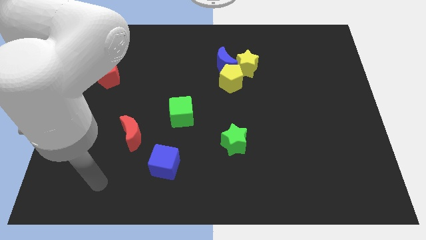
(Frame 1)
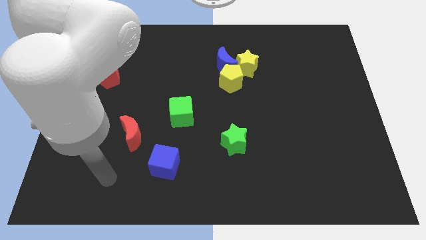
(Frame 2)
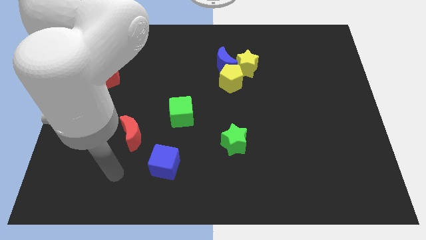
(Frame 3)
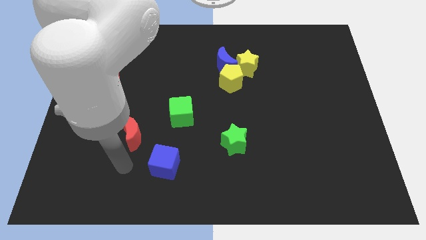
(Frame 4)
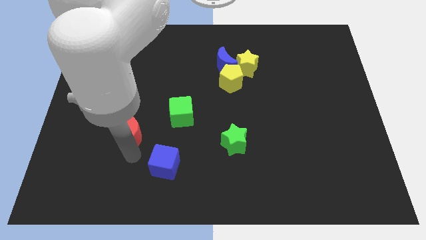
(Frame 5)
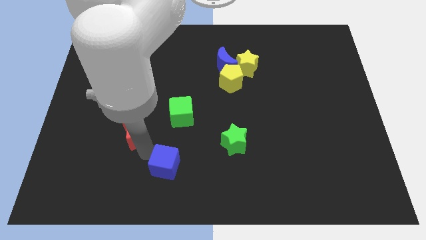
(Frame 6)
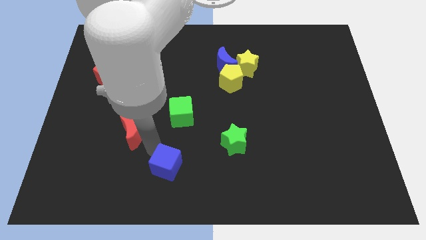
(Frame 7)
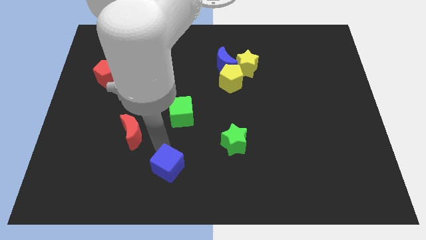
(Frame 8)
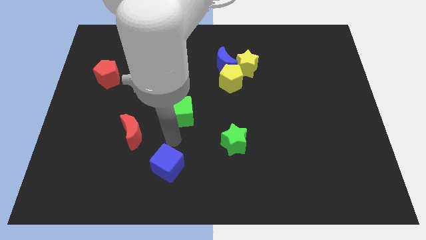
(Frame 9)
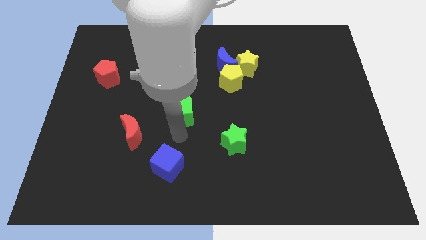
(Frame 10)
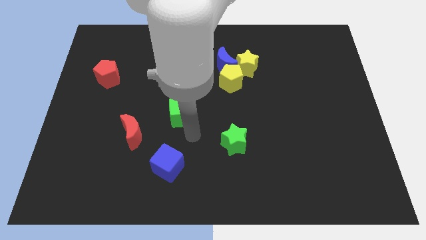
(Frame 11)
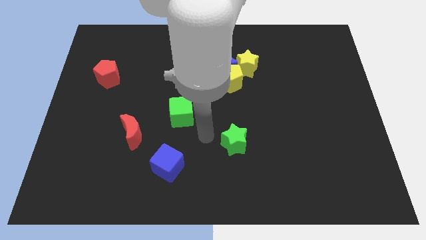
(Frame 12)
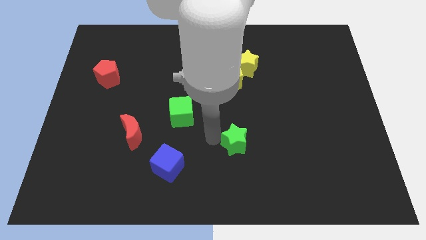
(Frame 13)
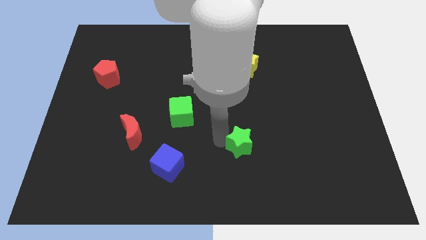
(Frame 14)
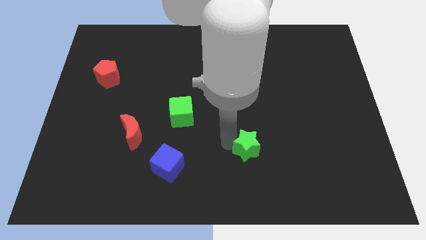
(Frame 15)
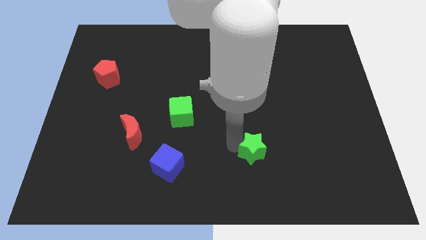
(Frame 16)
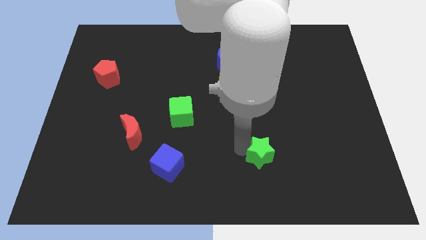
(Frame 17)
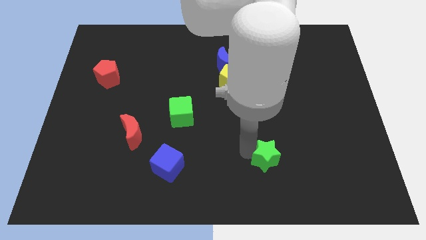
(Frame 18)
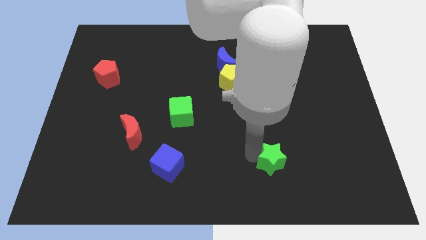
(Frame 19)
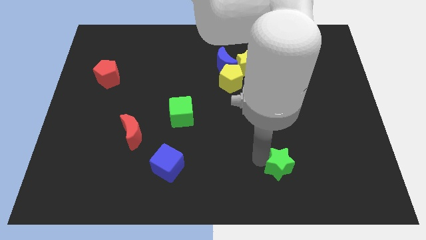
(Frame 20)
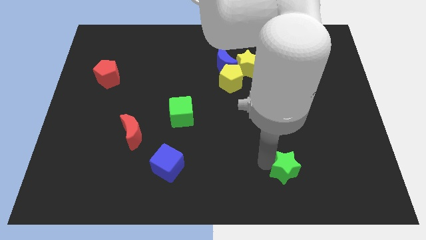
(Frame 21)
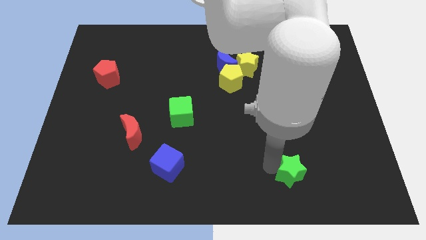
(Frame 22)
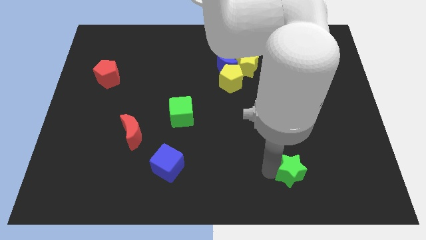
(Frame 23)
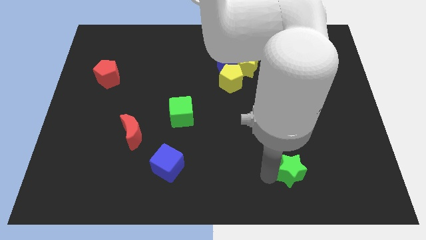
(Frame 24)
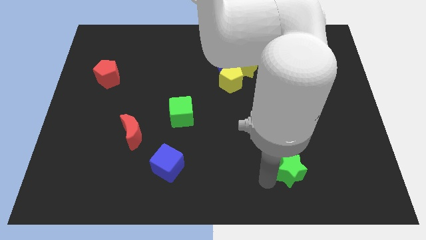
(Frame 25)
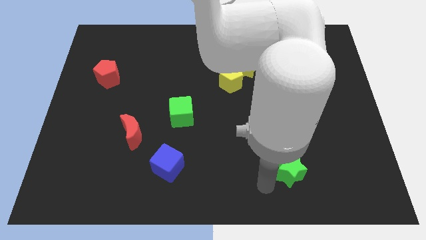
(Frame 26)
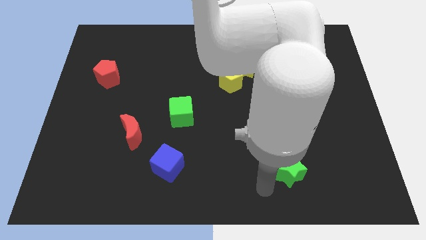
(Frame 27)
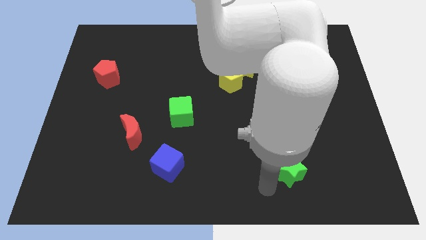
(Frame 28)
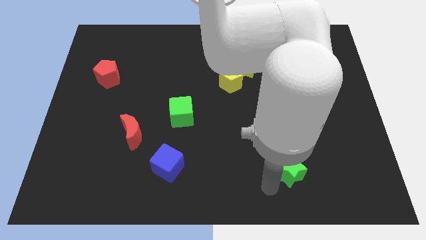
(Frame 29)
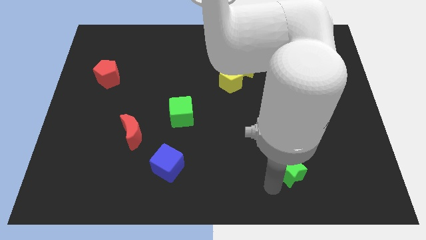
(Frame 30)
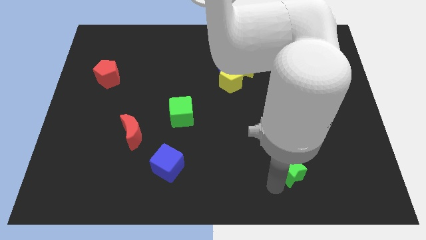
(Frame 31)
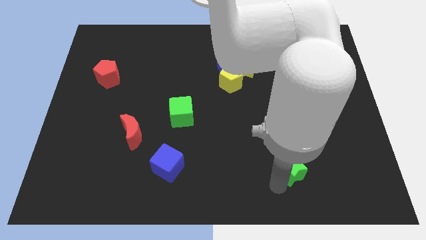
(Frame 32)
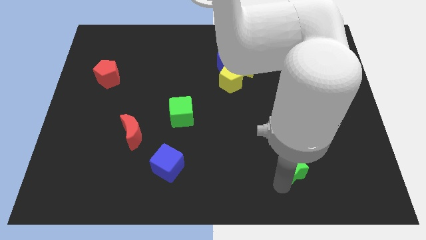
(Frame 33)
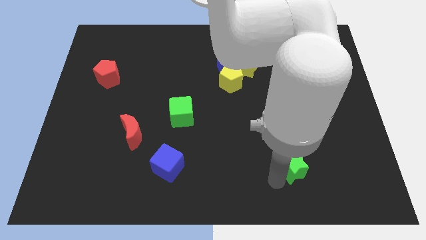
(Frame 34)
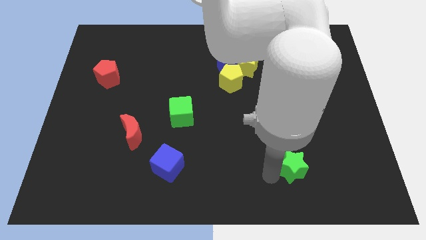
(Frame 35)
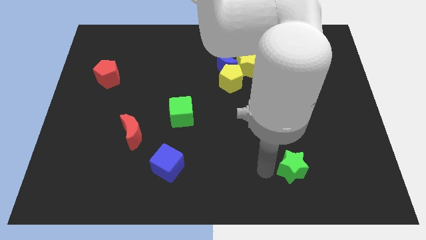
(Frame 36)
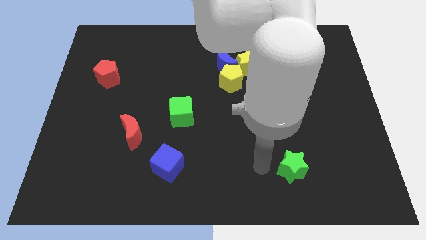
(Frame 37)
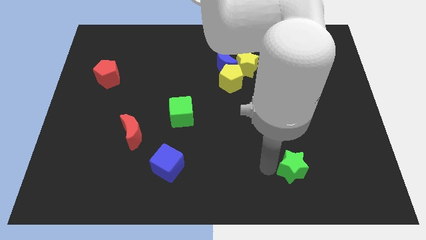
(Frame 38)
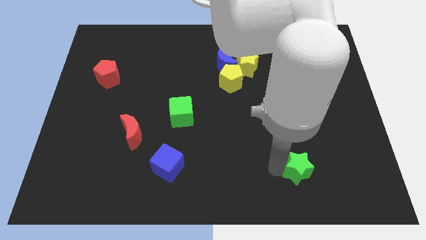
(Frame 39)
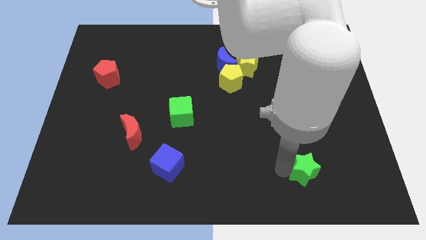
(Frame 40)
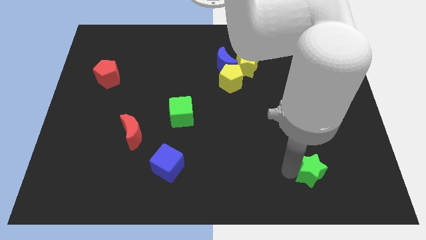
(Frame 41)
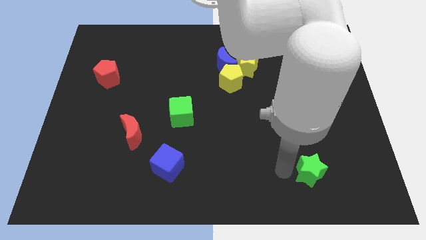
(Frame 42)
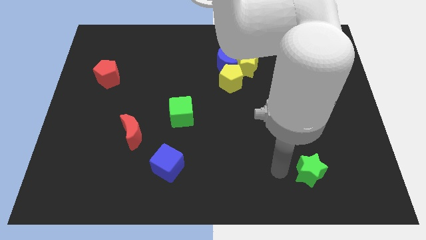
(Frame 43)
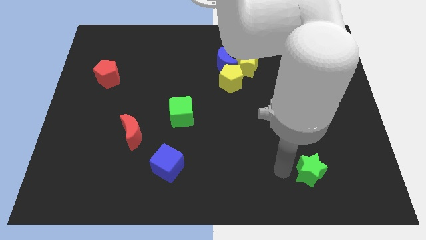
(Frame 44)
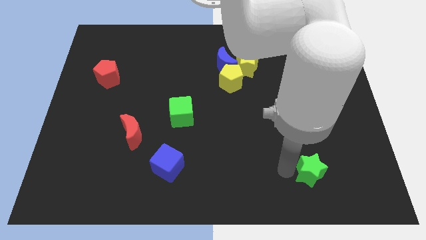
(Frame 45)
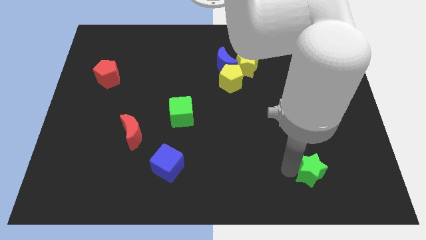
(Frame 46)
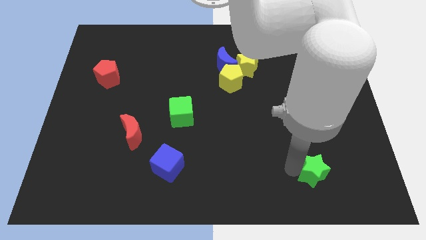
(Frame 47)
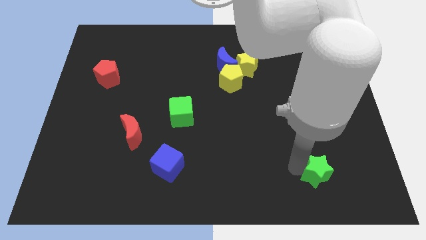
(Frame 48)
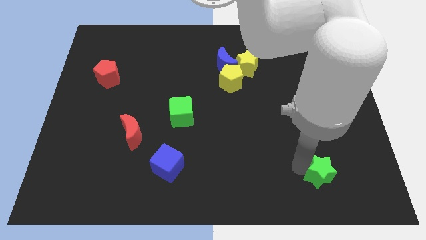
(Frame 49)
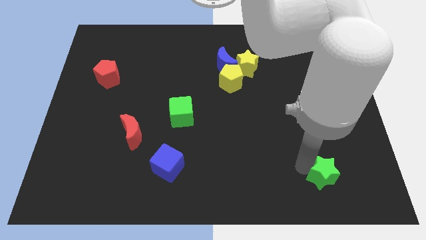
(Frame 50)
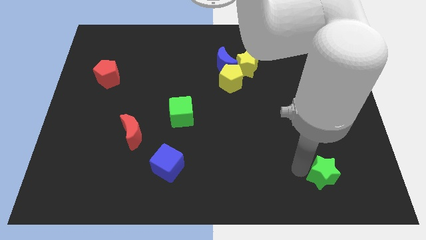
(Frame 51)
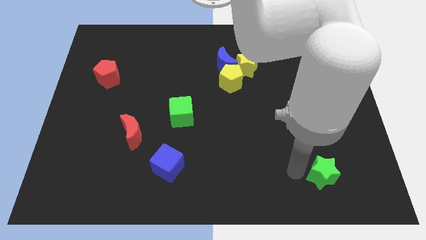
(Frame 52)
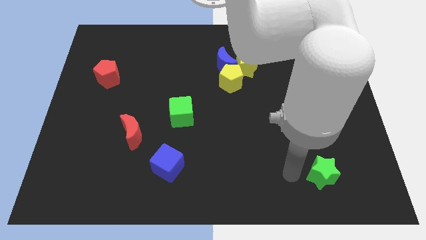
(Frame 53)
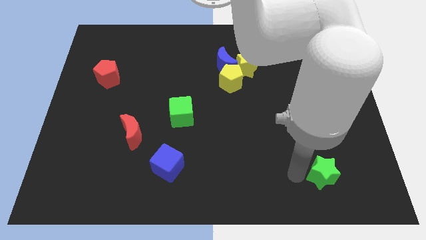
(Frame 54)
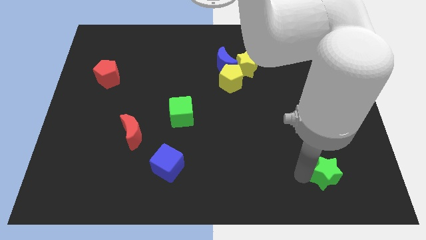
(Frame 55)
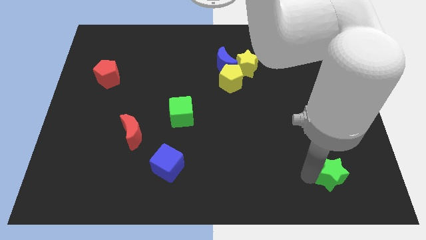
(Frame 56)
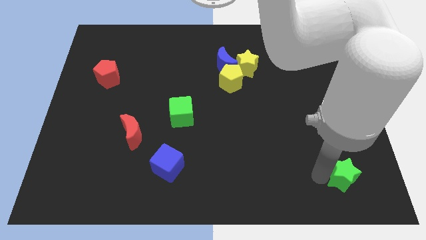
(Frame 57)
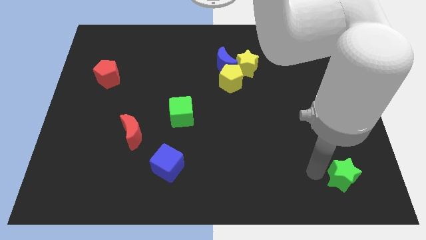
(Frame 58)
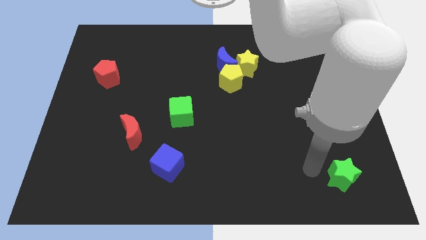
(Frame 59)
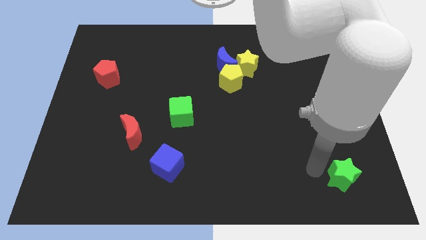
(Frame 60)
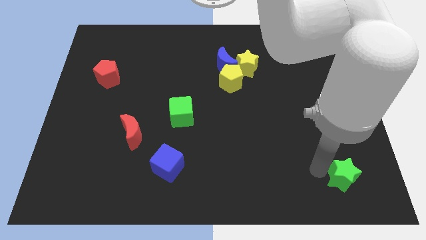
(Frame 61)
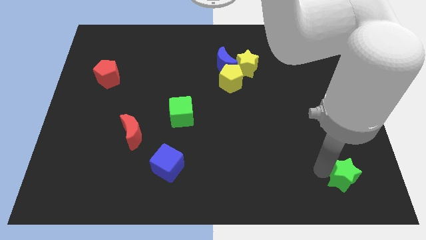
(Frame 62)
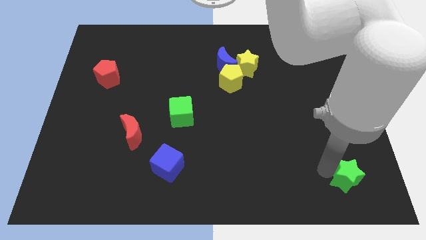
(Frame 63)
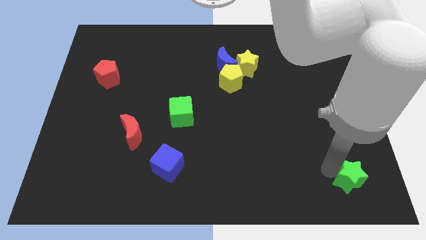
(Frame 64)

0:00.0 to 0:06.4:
put the green star to the bottom right of the board

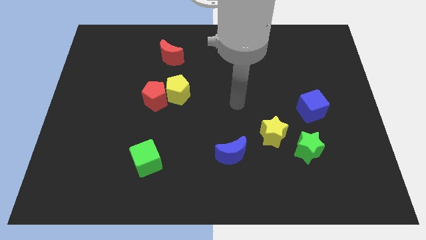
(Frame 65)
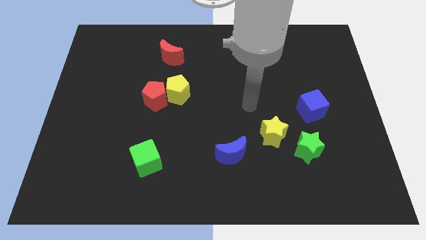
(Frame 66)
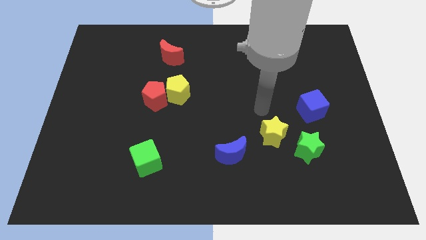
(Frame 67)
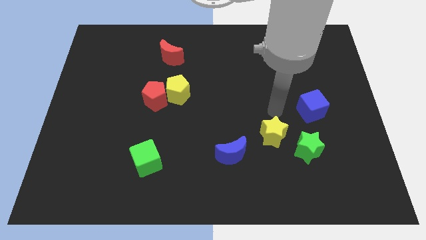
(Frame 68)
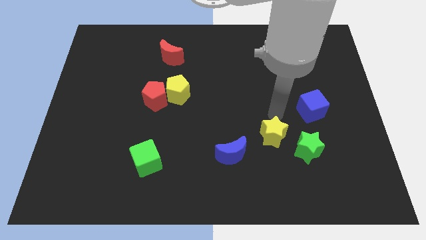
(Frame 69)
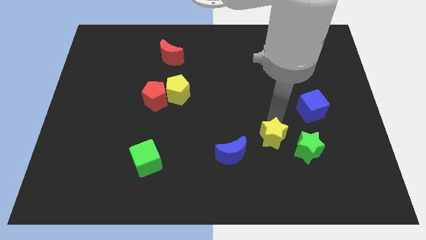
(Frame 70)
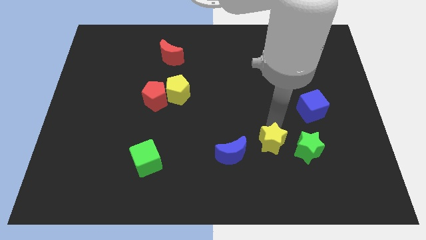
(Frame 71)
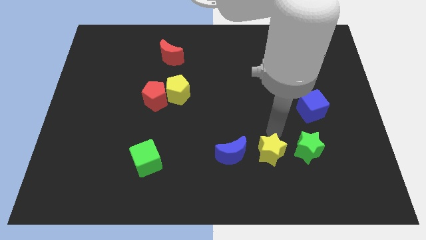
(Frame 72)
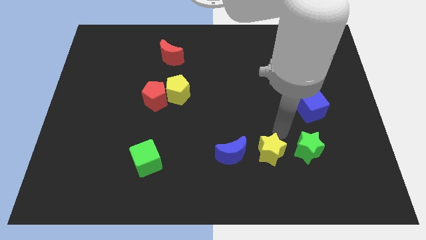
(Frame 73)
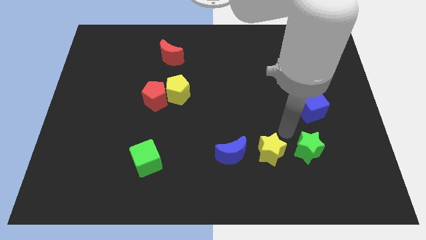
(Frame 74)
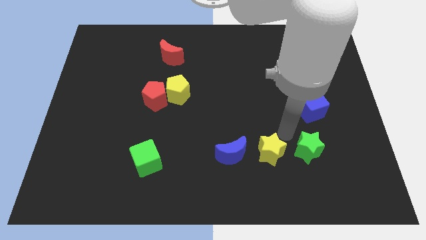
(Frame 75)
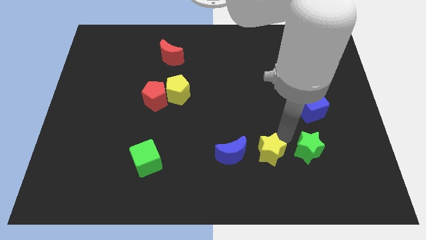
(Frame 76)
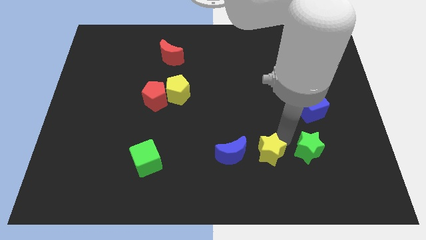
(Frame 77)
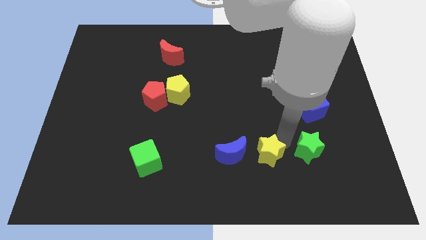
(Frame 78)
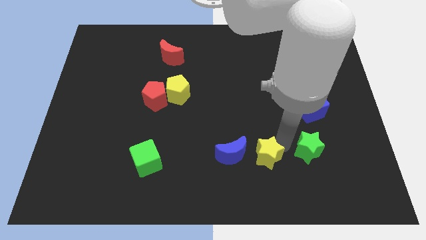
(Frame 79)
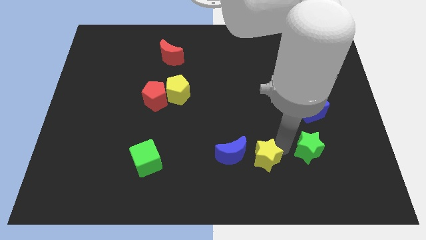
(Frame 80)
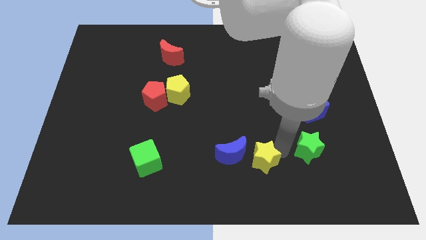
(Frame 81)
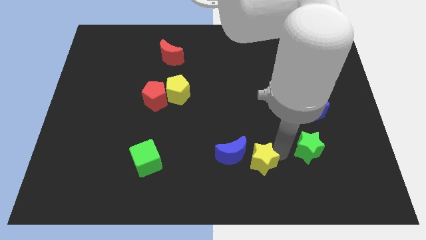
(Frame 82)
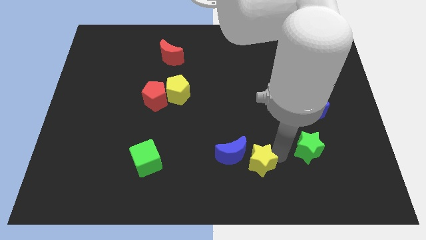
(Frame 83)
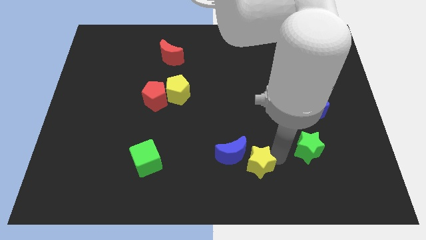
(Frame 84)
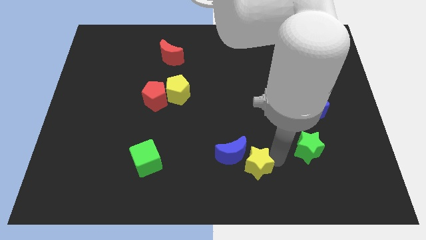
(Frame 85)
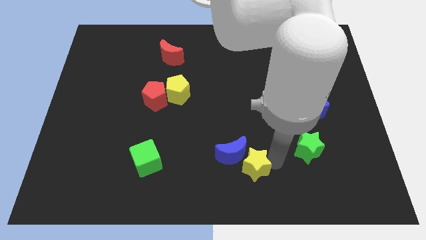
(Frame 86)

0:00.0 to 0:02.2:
push the yellow star to the bottom side
